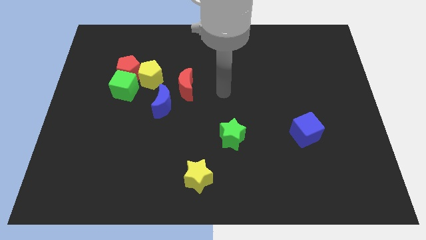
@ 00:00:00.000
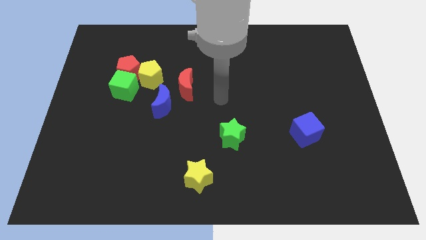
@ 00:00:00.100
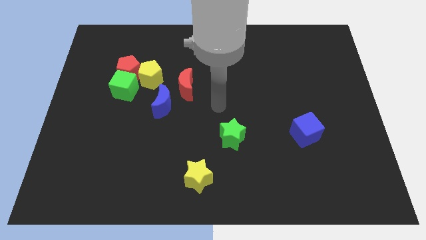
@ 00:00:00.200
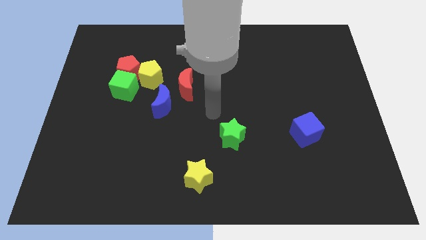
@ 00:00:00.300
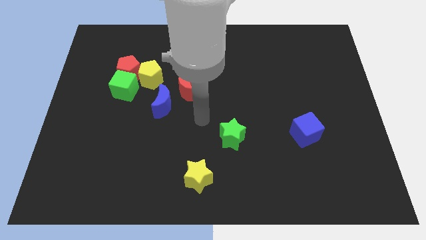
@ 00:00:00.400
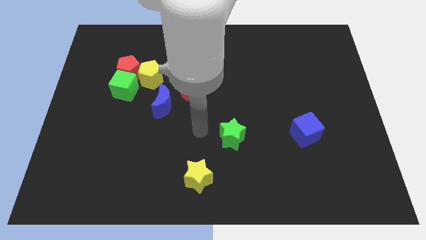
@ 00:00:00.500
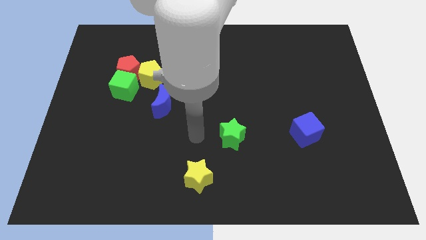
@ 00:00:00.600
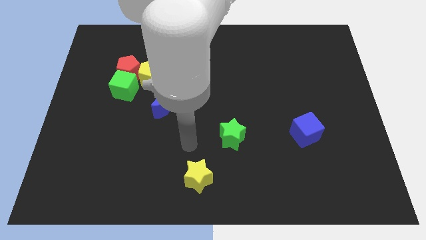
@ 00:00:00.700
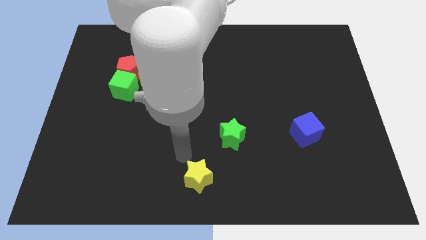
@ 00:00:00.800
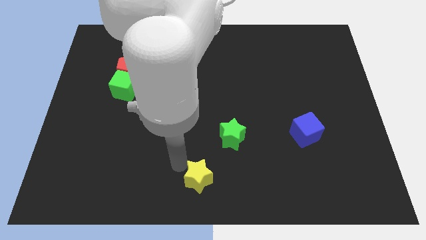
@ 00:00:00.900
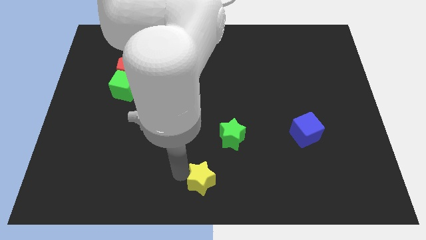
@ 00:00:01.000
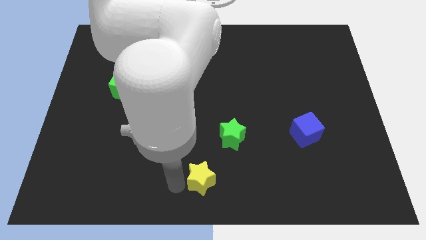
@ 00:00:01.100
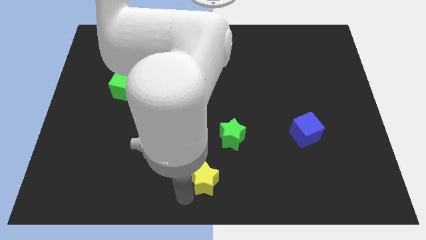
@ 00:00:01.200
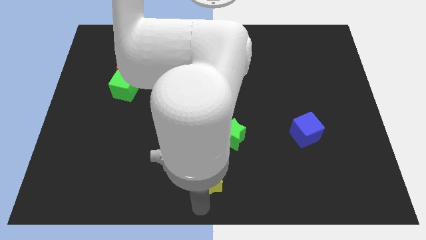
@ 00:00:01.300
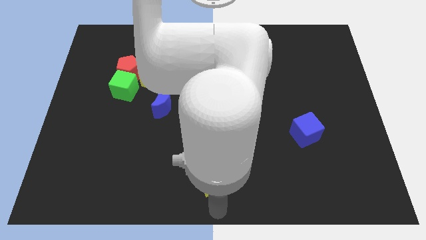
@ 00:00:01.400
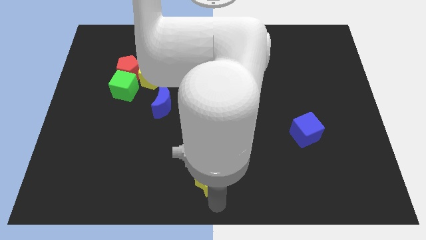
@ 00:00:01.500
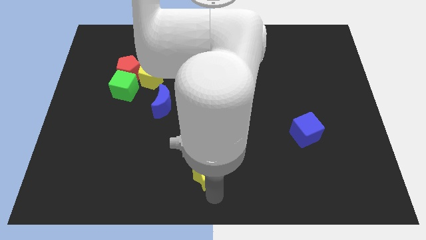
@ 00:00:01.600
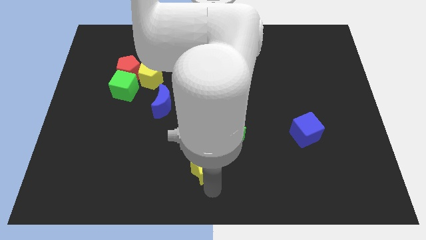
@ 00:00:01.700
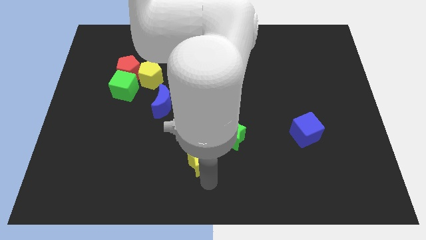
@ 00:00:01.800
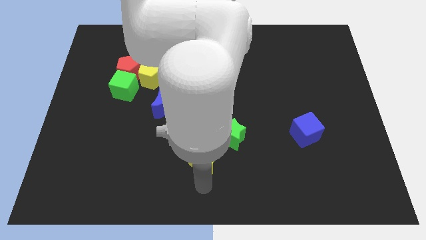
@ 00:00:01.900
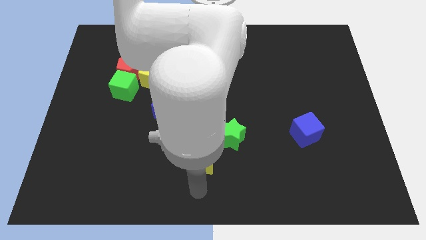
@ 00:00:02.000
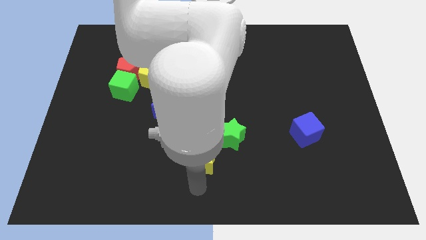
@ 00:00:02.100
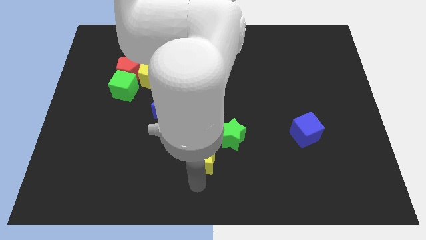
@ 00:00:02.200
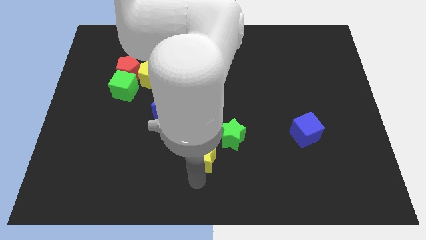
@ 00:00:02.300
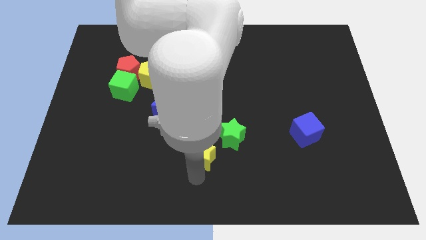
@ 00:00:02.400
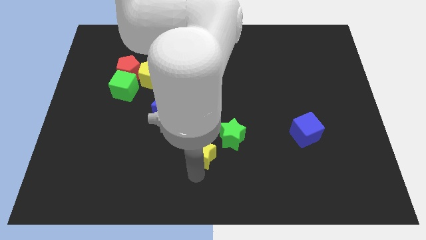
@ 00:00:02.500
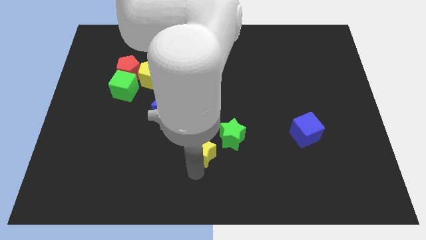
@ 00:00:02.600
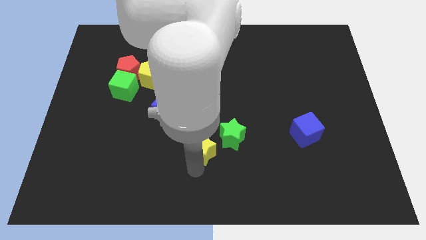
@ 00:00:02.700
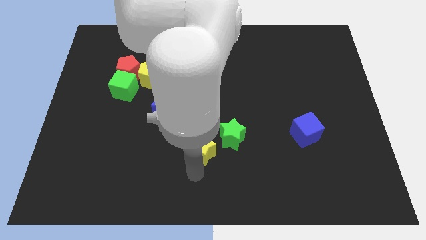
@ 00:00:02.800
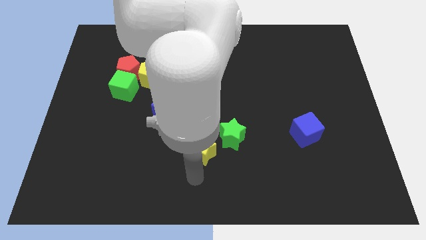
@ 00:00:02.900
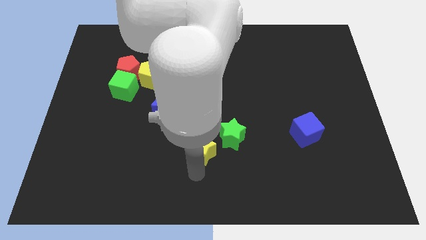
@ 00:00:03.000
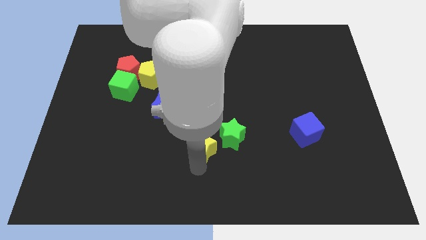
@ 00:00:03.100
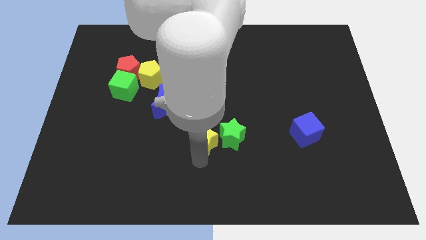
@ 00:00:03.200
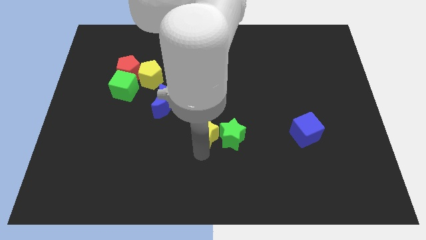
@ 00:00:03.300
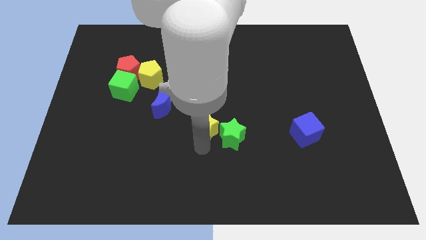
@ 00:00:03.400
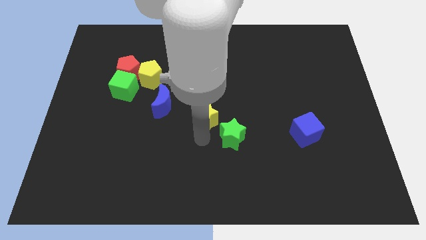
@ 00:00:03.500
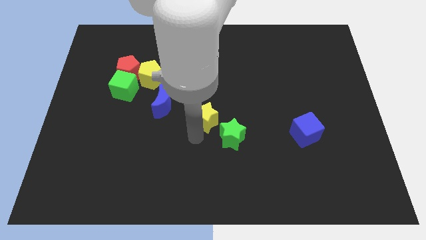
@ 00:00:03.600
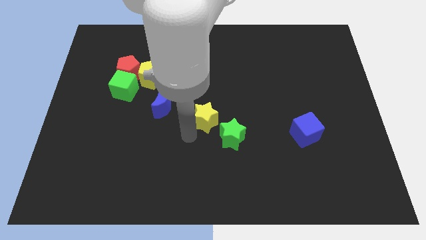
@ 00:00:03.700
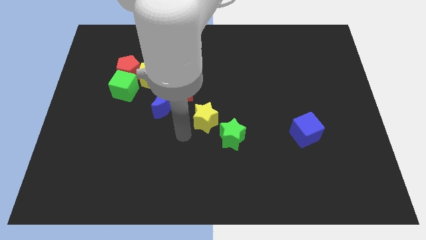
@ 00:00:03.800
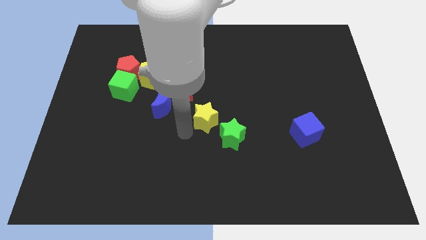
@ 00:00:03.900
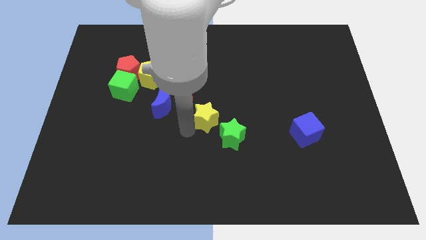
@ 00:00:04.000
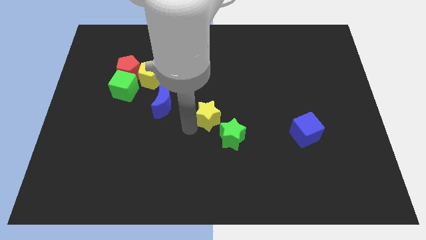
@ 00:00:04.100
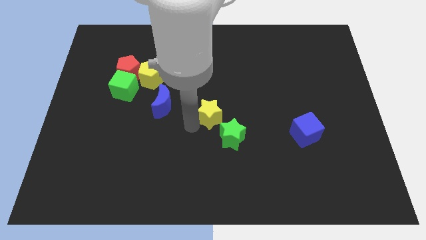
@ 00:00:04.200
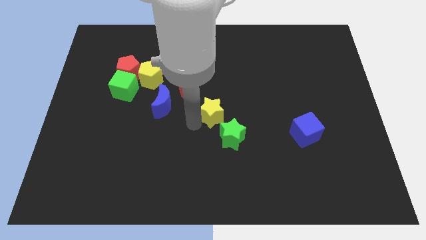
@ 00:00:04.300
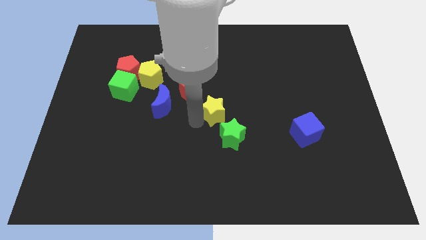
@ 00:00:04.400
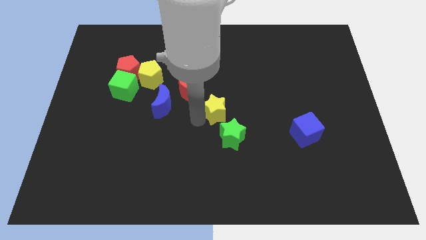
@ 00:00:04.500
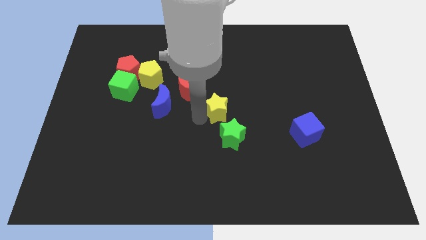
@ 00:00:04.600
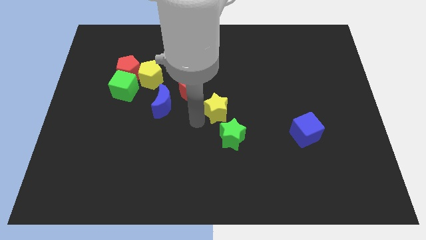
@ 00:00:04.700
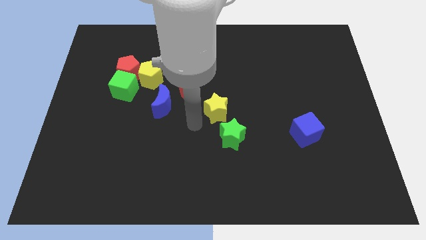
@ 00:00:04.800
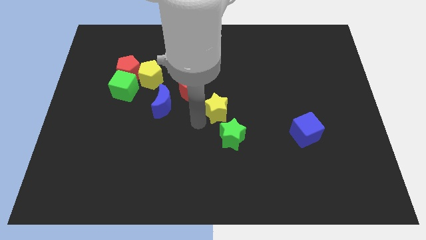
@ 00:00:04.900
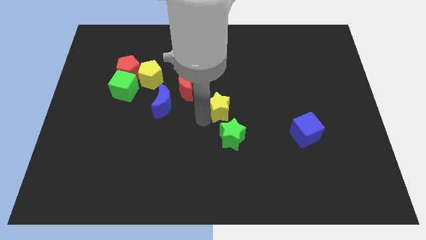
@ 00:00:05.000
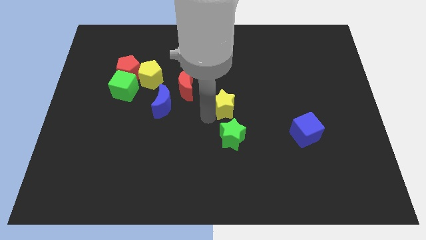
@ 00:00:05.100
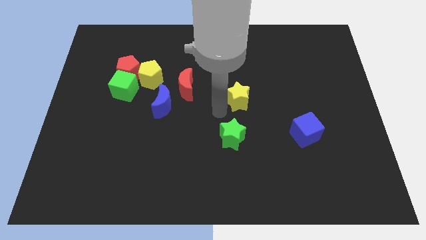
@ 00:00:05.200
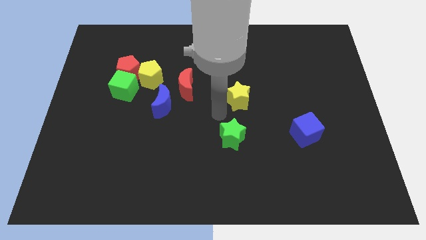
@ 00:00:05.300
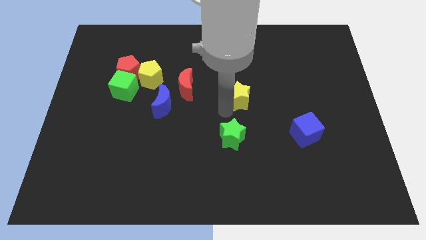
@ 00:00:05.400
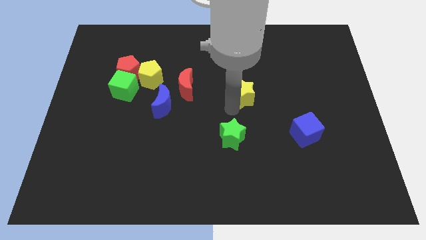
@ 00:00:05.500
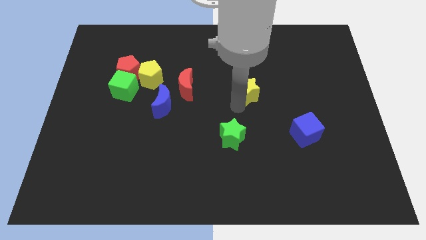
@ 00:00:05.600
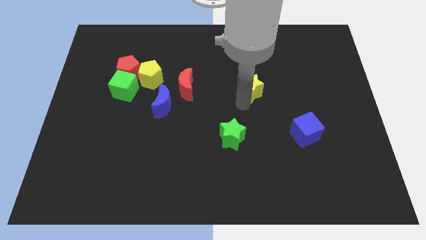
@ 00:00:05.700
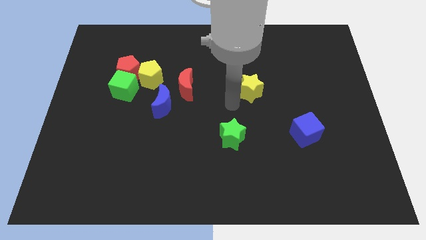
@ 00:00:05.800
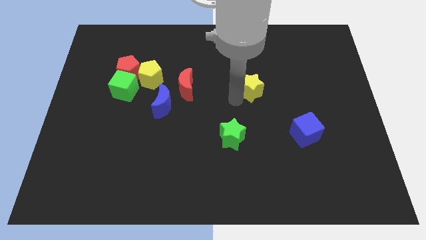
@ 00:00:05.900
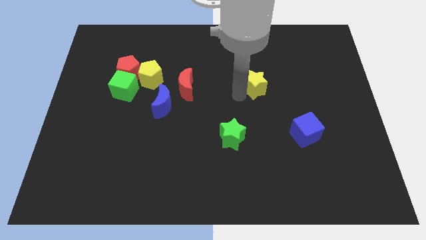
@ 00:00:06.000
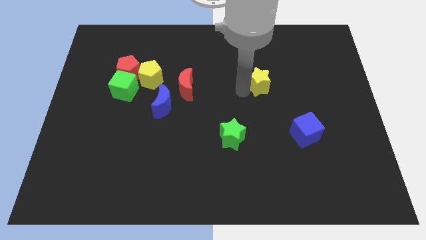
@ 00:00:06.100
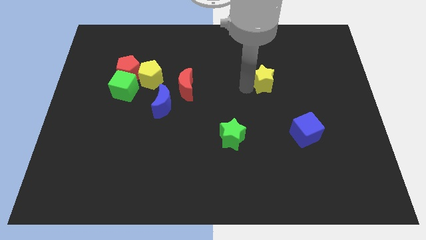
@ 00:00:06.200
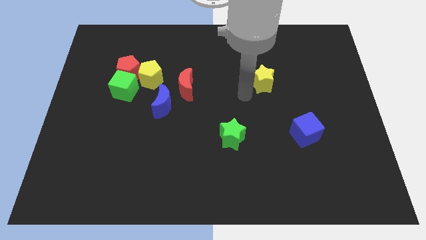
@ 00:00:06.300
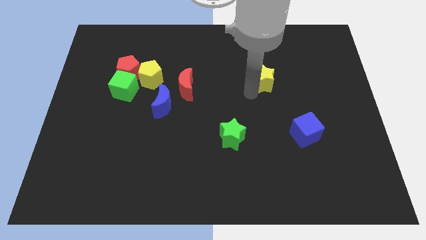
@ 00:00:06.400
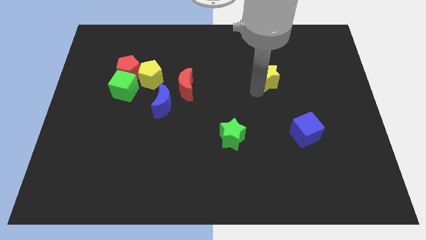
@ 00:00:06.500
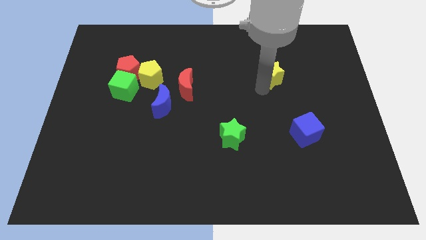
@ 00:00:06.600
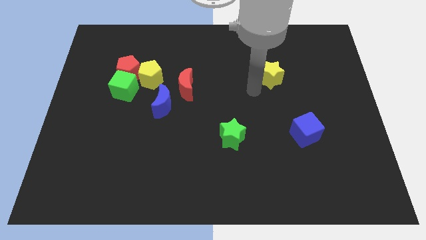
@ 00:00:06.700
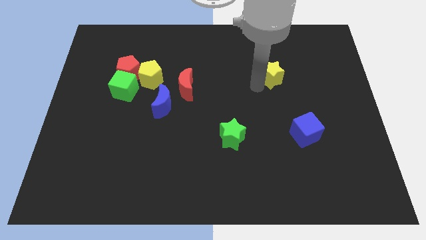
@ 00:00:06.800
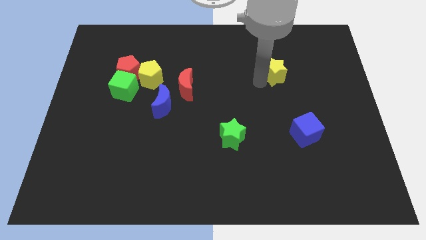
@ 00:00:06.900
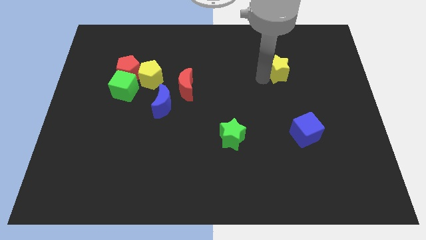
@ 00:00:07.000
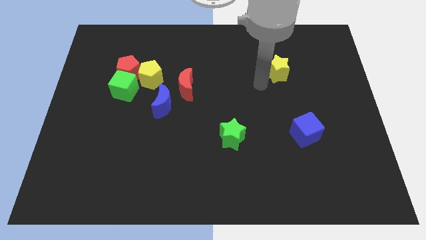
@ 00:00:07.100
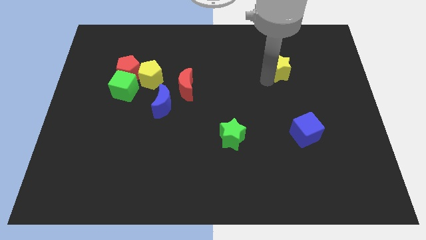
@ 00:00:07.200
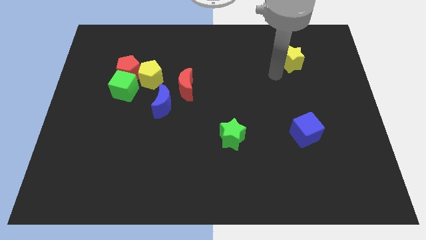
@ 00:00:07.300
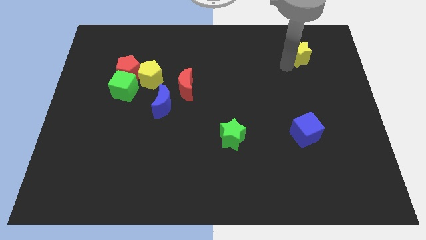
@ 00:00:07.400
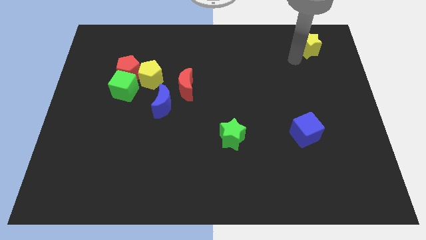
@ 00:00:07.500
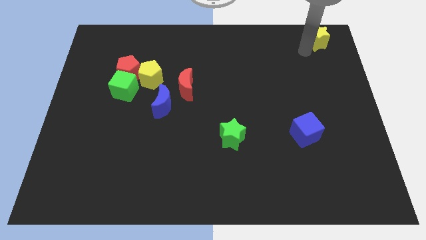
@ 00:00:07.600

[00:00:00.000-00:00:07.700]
put the yellow star to the upper right corner
